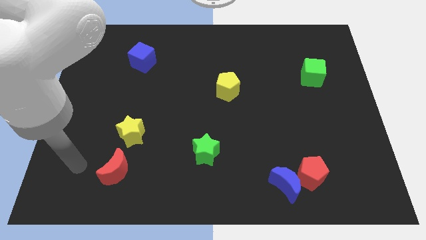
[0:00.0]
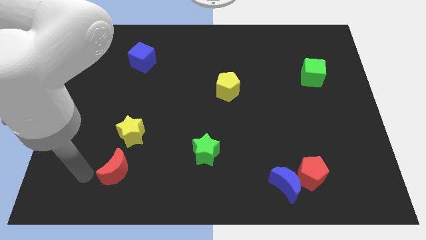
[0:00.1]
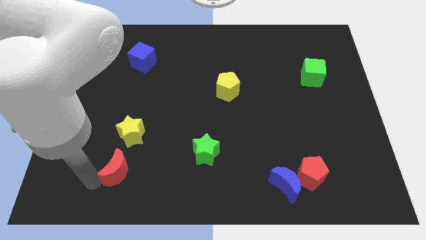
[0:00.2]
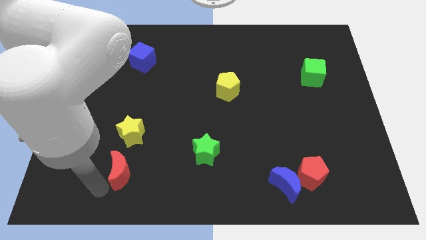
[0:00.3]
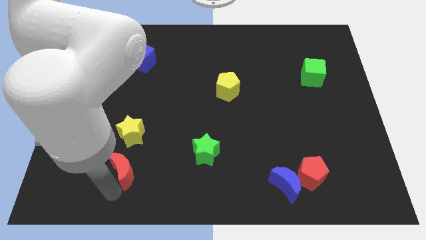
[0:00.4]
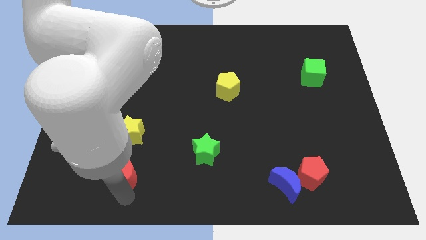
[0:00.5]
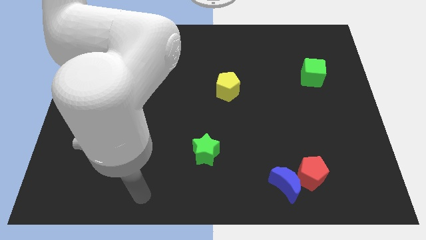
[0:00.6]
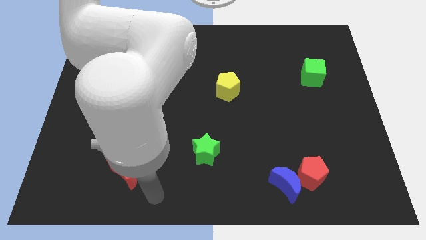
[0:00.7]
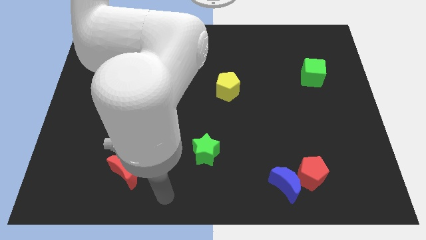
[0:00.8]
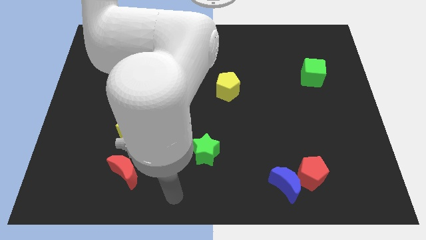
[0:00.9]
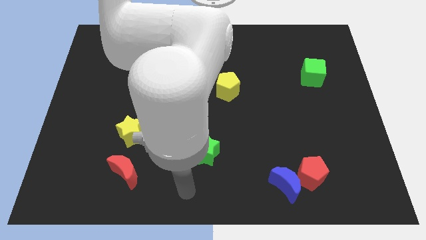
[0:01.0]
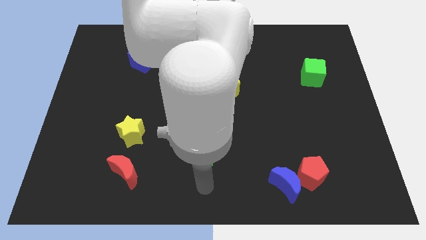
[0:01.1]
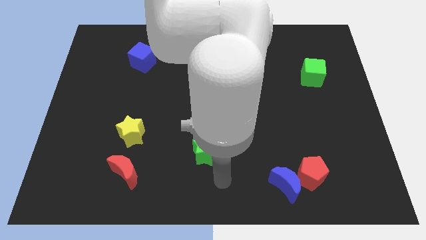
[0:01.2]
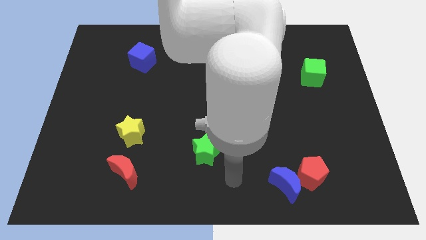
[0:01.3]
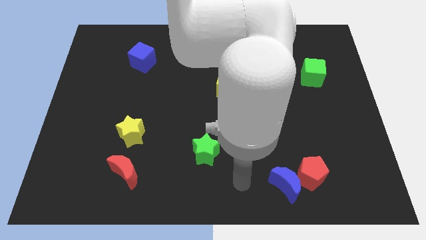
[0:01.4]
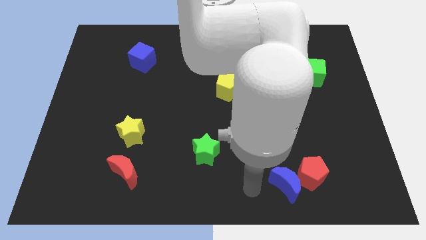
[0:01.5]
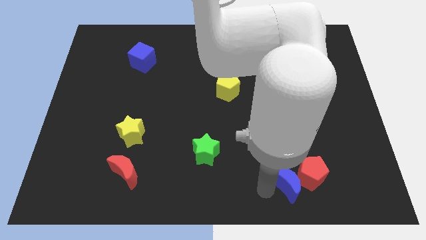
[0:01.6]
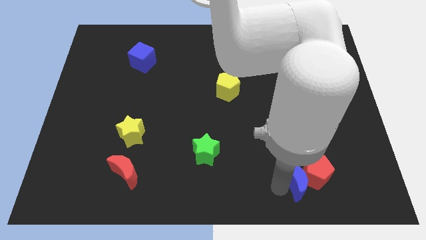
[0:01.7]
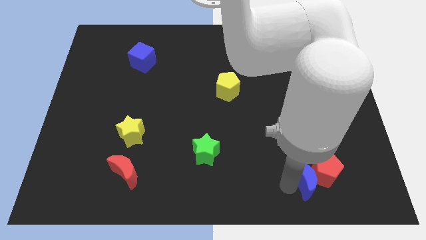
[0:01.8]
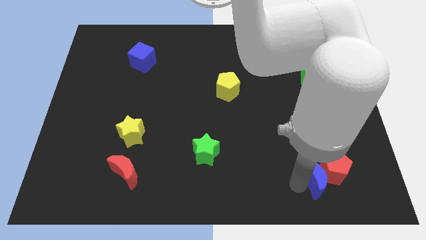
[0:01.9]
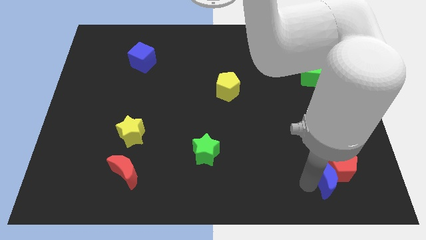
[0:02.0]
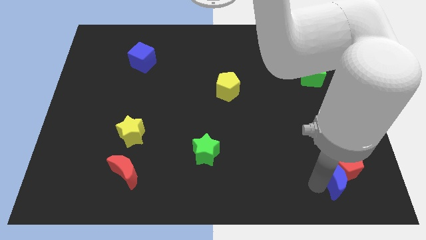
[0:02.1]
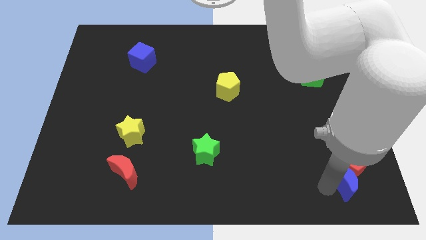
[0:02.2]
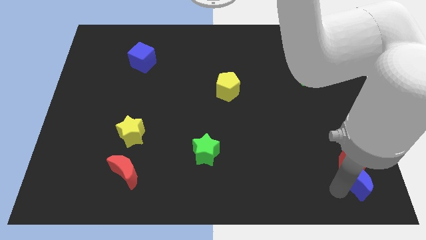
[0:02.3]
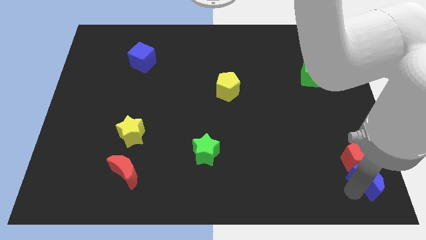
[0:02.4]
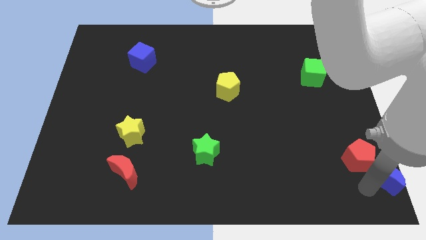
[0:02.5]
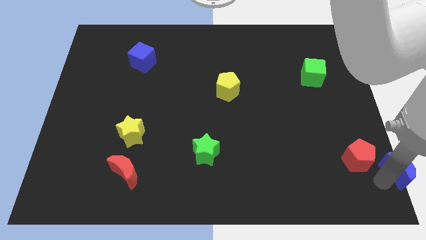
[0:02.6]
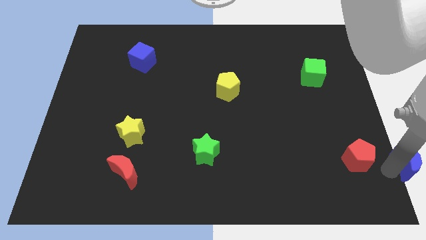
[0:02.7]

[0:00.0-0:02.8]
pull the red pentagon apart from the blue moon

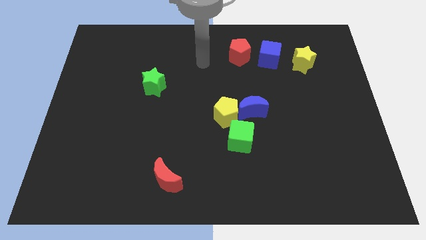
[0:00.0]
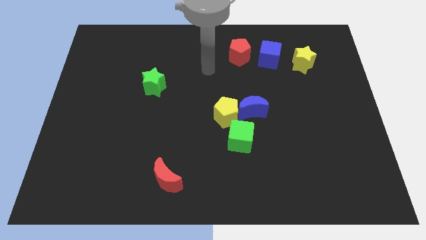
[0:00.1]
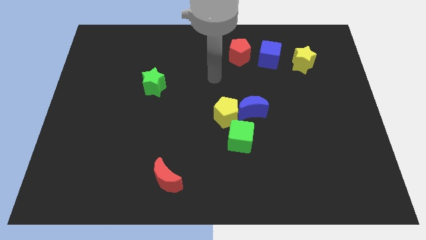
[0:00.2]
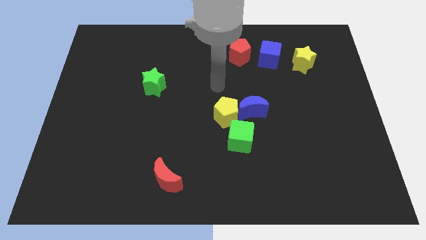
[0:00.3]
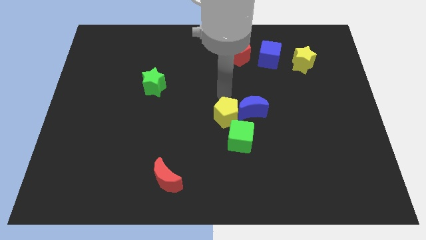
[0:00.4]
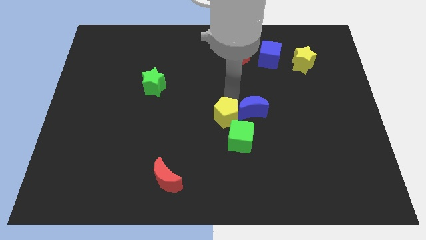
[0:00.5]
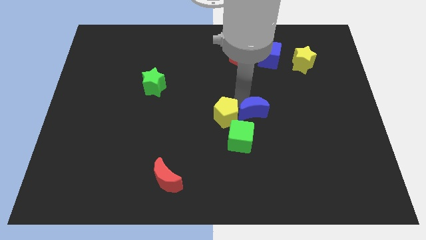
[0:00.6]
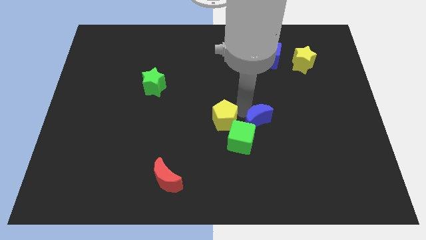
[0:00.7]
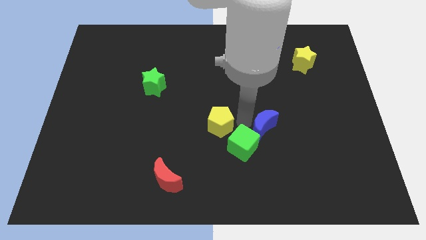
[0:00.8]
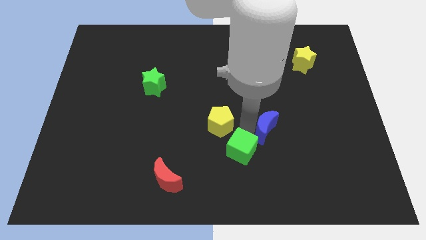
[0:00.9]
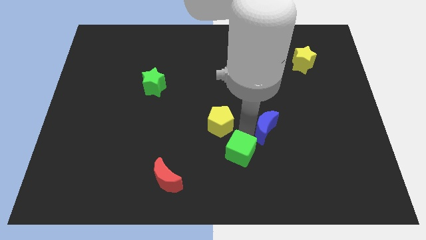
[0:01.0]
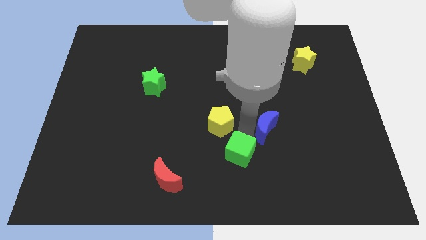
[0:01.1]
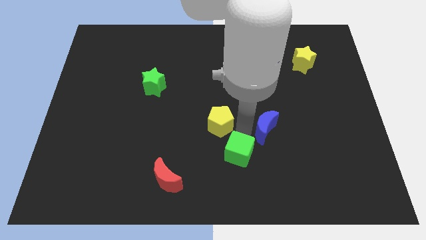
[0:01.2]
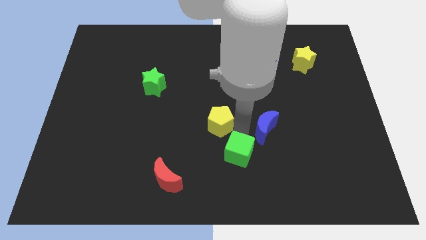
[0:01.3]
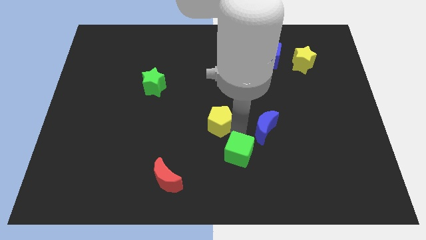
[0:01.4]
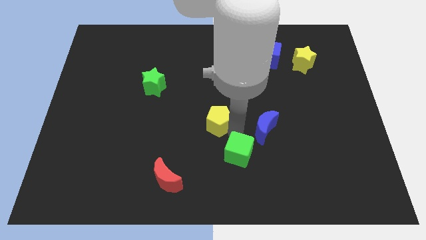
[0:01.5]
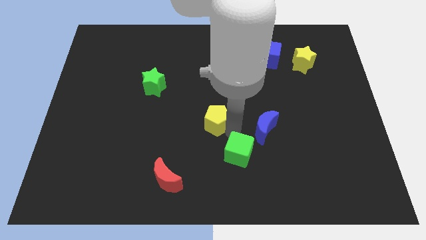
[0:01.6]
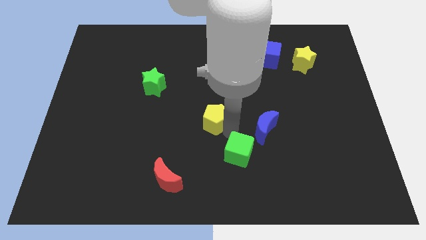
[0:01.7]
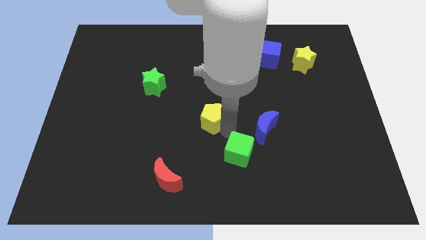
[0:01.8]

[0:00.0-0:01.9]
separate the yellow pentagon from the blue moon and green cube

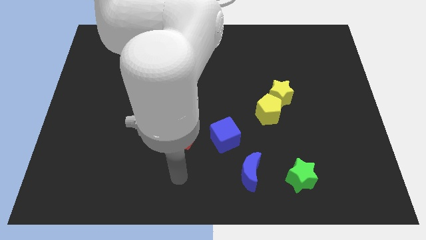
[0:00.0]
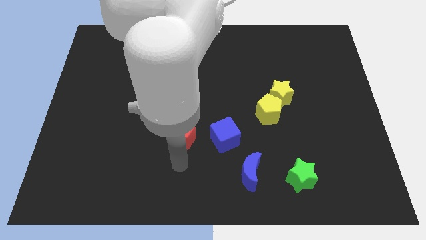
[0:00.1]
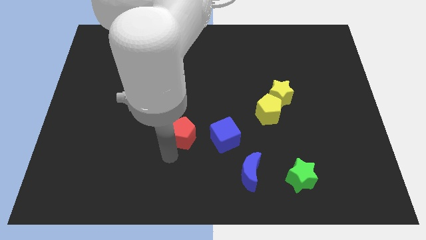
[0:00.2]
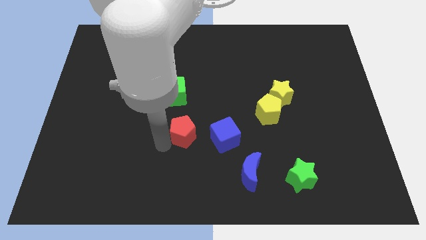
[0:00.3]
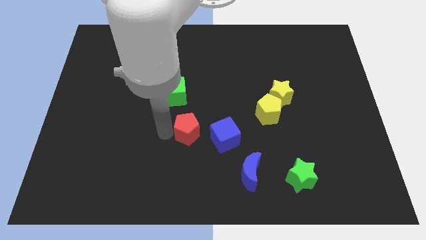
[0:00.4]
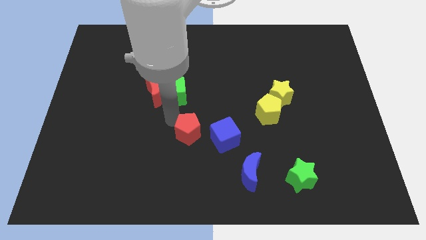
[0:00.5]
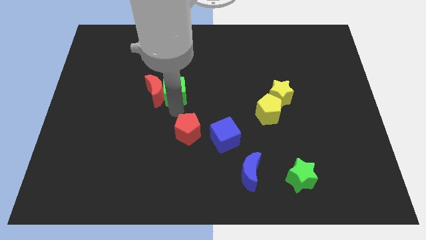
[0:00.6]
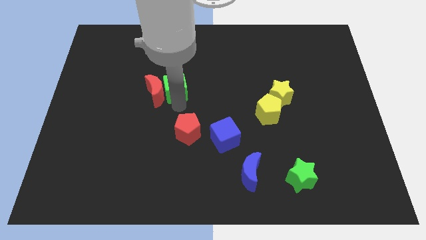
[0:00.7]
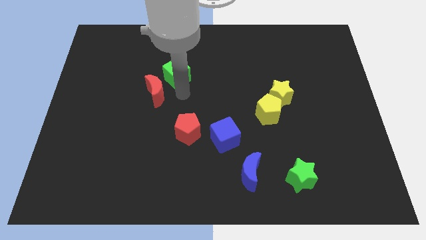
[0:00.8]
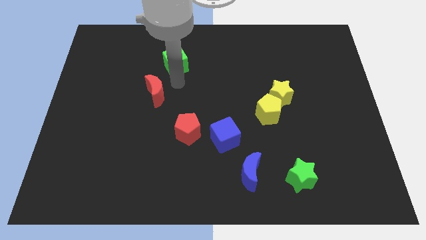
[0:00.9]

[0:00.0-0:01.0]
pull the red moon apart from the green cube

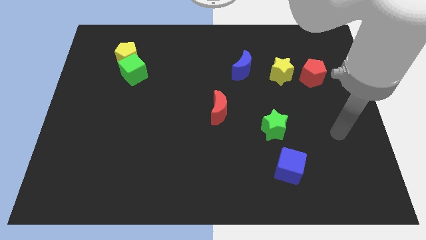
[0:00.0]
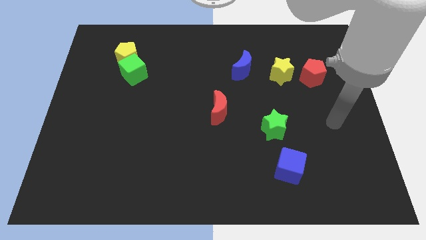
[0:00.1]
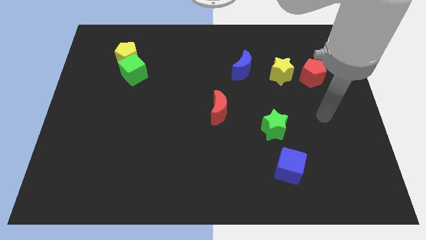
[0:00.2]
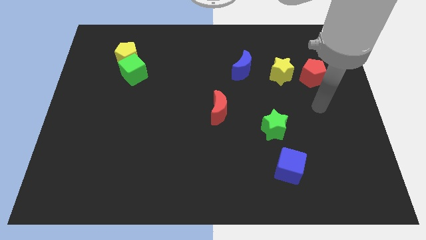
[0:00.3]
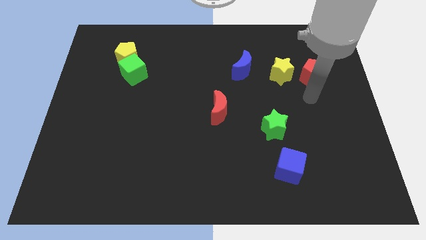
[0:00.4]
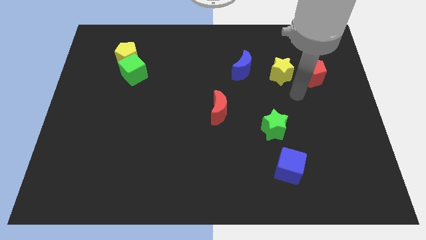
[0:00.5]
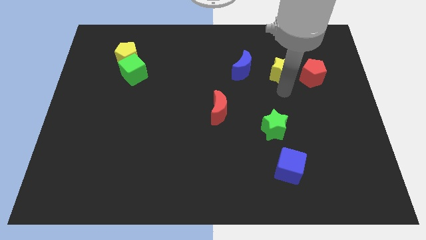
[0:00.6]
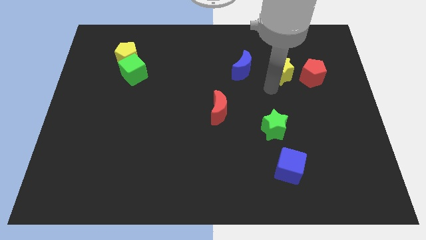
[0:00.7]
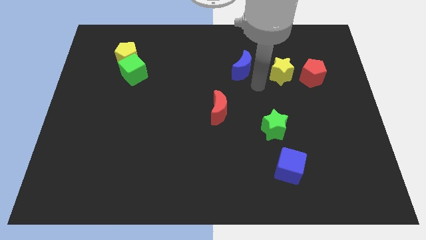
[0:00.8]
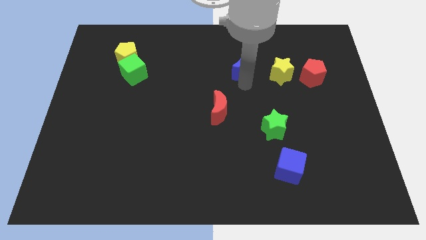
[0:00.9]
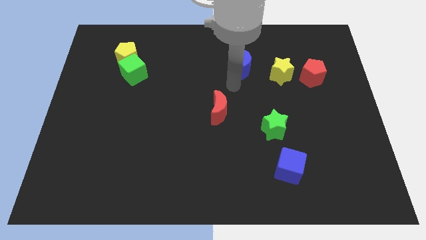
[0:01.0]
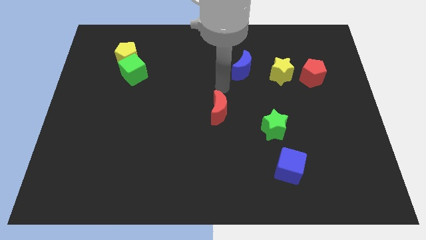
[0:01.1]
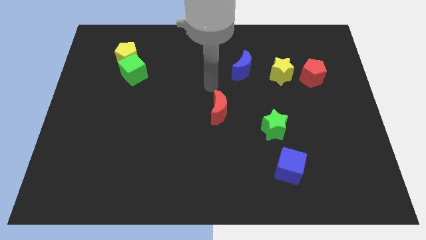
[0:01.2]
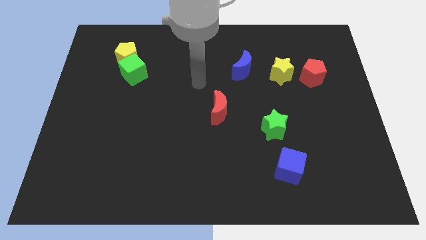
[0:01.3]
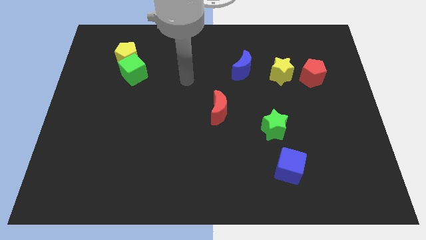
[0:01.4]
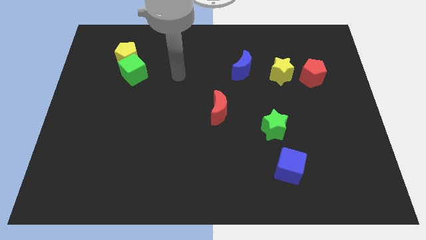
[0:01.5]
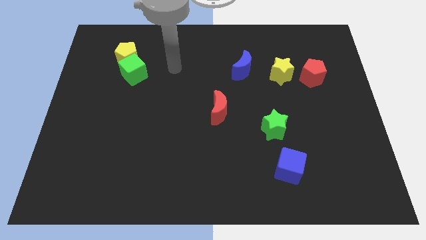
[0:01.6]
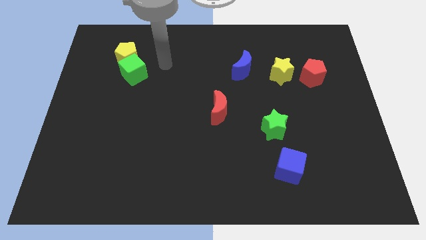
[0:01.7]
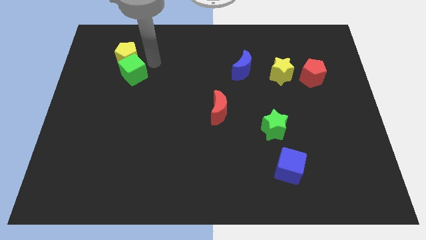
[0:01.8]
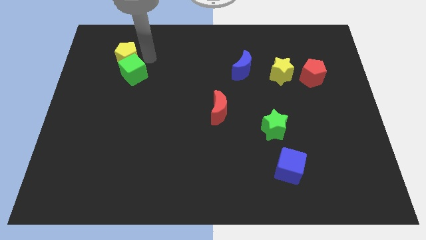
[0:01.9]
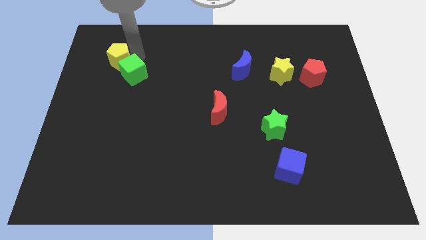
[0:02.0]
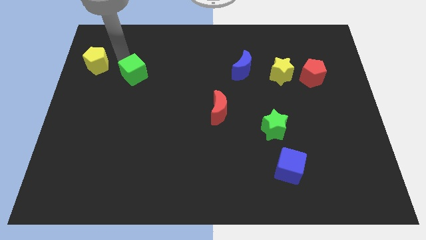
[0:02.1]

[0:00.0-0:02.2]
pull the green cube apart from the yellow pentagon

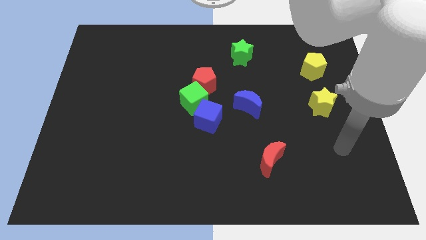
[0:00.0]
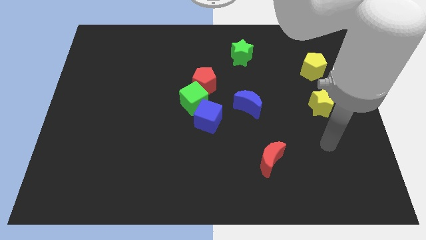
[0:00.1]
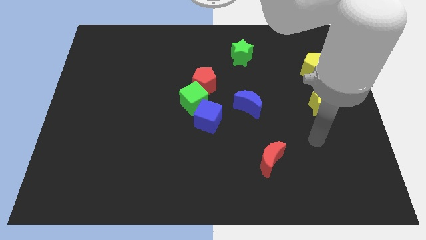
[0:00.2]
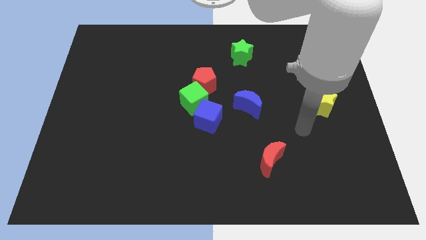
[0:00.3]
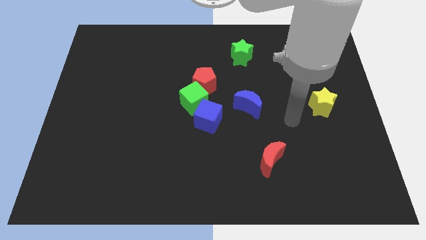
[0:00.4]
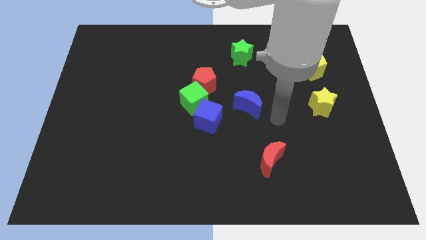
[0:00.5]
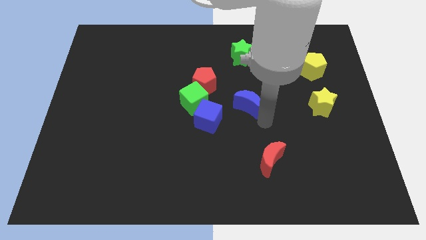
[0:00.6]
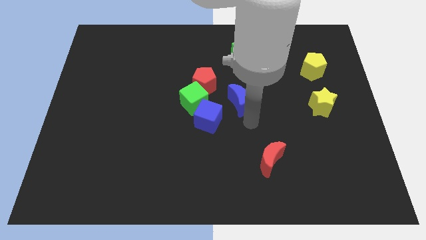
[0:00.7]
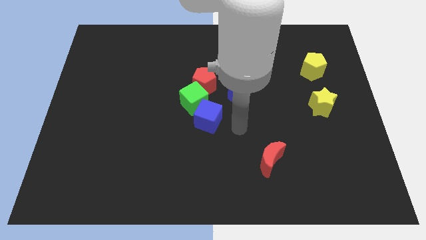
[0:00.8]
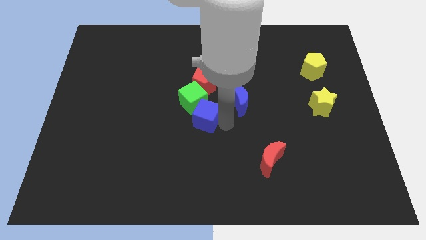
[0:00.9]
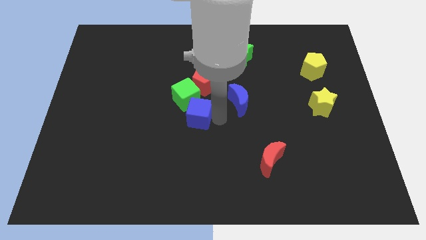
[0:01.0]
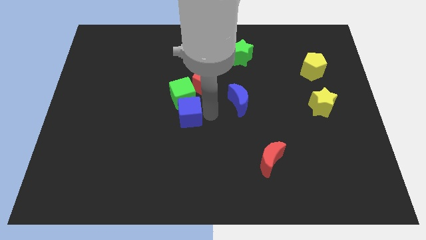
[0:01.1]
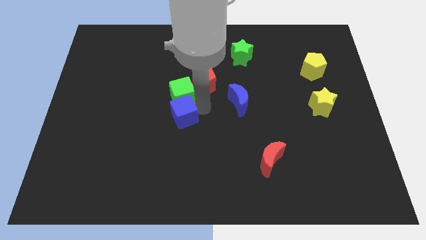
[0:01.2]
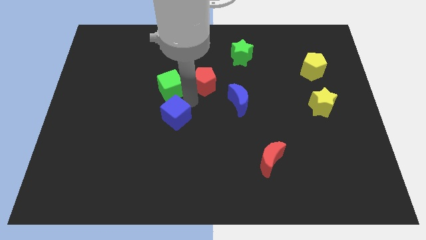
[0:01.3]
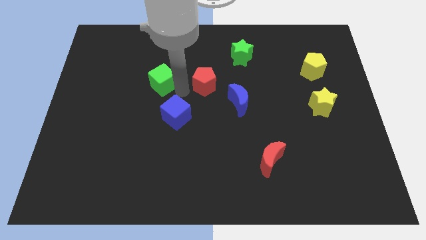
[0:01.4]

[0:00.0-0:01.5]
move the red pentagon away from the green cube
